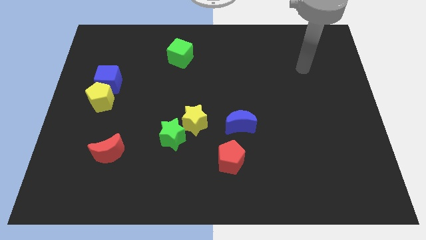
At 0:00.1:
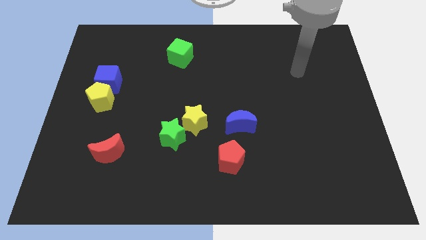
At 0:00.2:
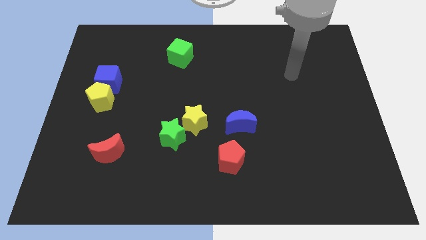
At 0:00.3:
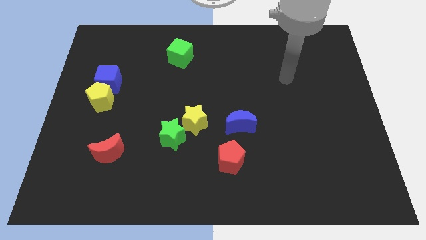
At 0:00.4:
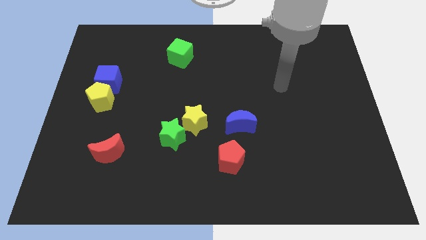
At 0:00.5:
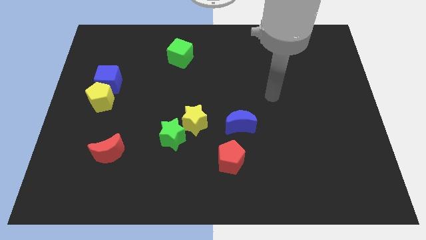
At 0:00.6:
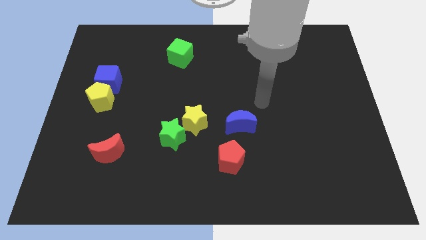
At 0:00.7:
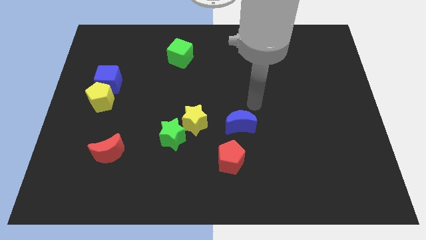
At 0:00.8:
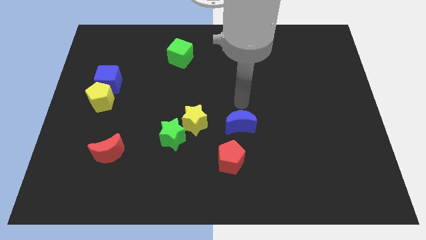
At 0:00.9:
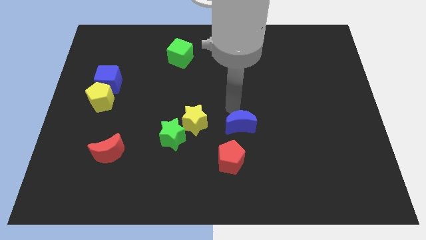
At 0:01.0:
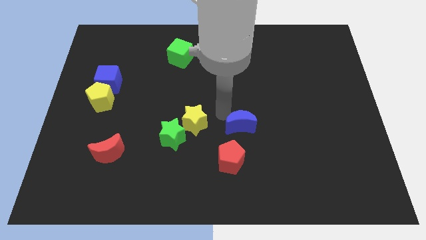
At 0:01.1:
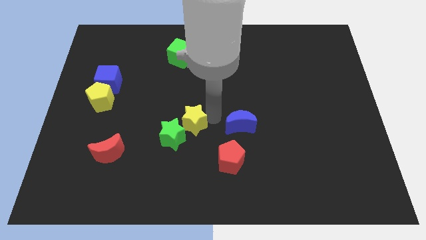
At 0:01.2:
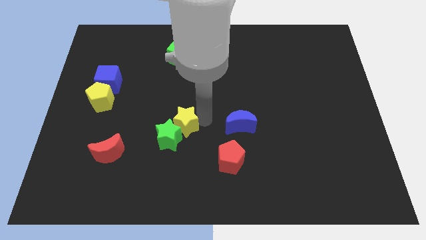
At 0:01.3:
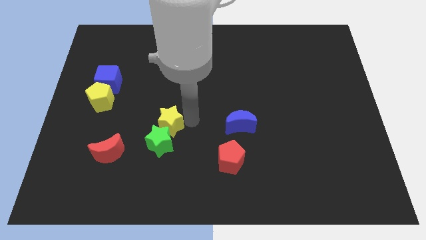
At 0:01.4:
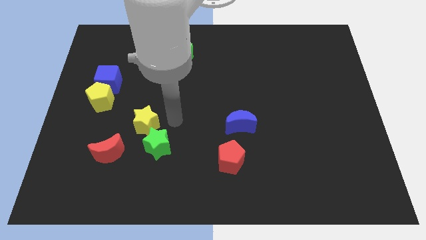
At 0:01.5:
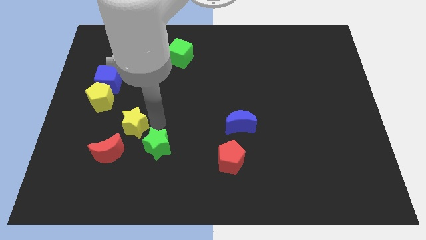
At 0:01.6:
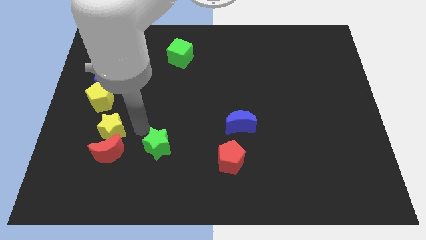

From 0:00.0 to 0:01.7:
move the green star away from the yellow star

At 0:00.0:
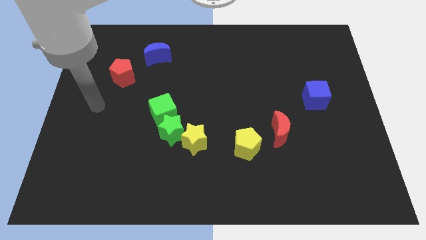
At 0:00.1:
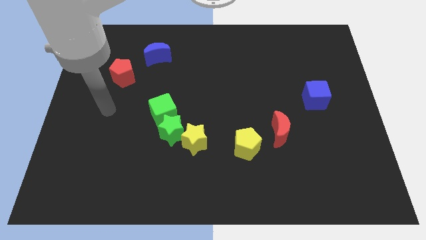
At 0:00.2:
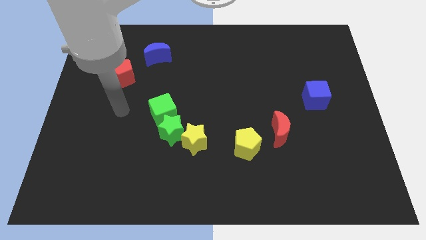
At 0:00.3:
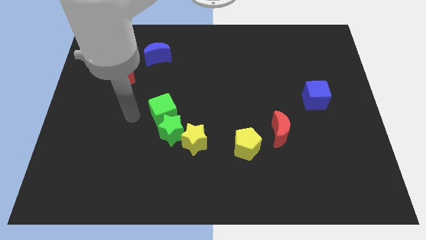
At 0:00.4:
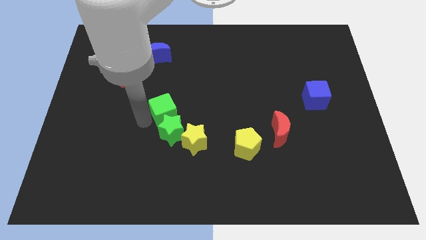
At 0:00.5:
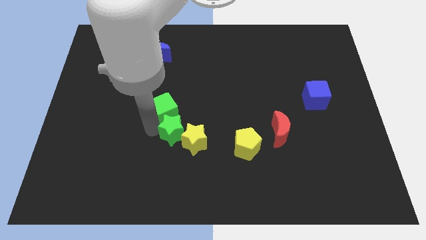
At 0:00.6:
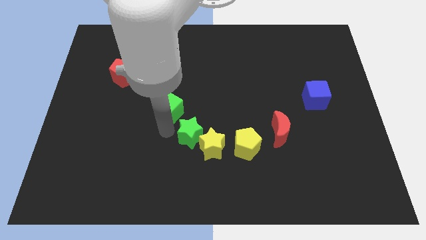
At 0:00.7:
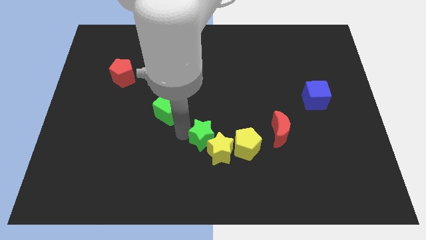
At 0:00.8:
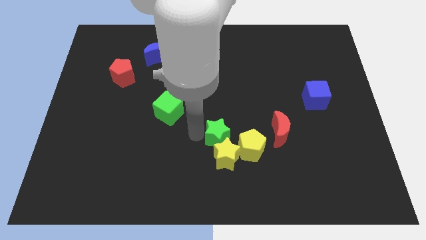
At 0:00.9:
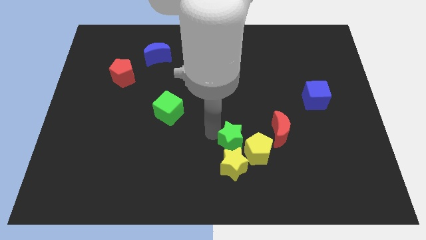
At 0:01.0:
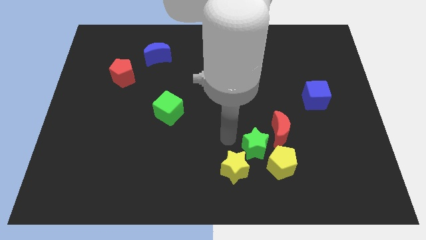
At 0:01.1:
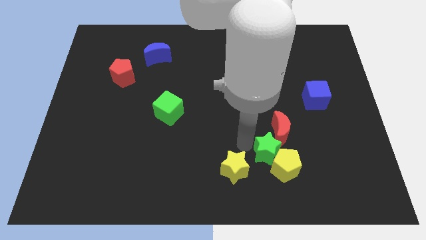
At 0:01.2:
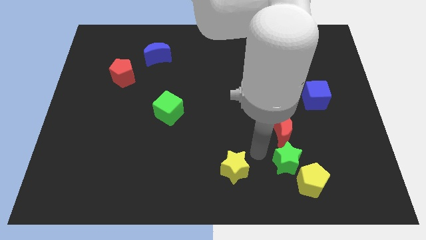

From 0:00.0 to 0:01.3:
separate the yellow star from the green star

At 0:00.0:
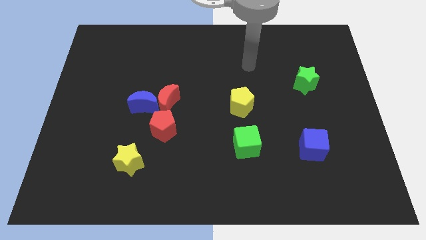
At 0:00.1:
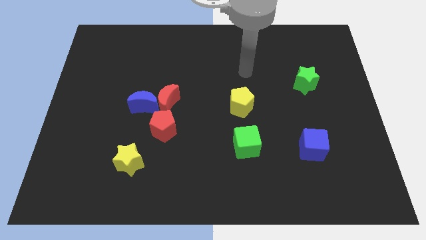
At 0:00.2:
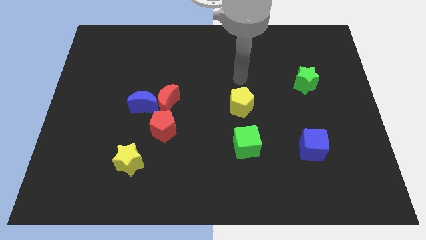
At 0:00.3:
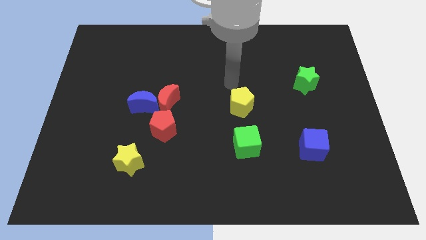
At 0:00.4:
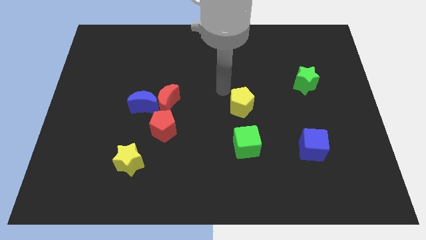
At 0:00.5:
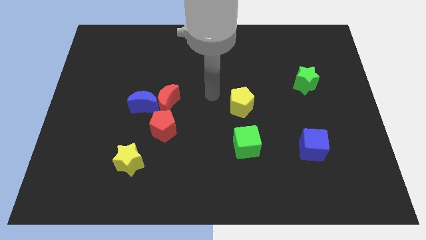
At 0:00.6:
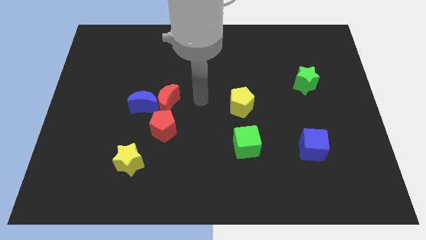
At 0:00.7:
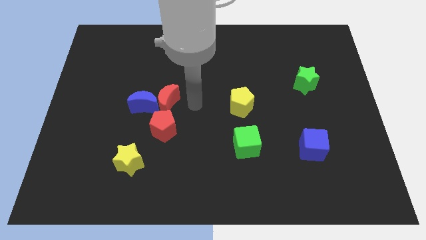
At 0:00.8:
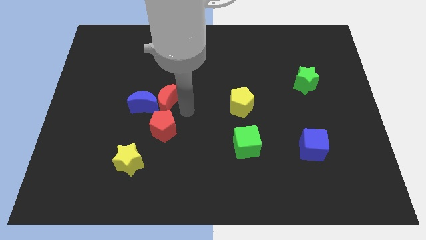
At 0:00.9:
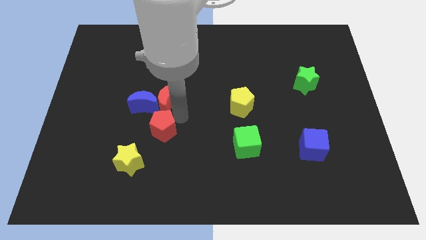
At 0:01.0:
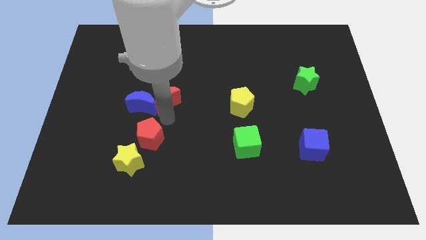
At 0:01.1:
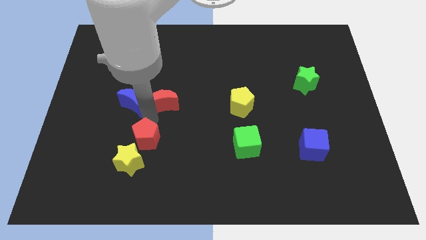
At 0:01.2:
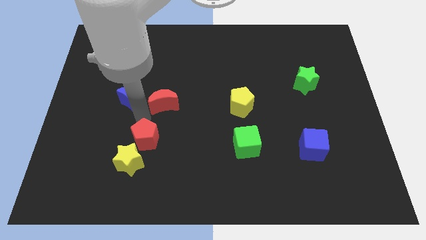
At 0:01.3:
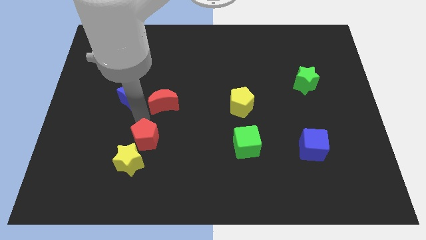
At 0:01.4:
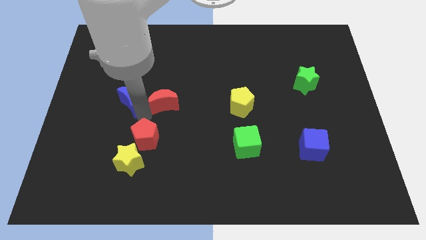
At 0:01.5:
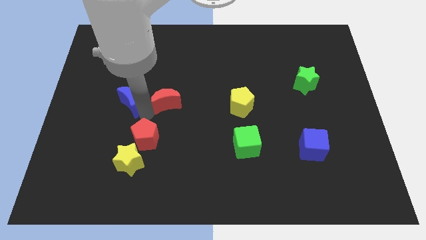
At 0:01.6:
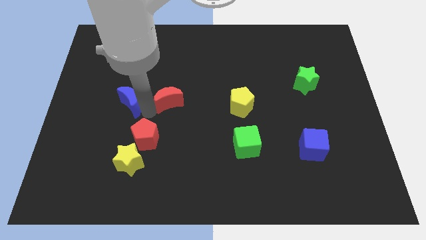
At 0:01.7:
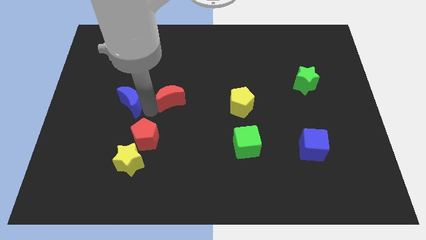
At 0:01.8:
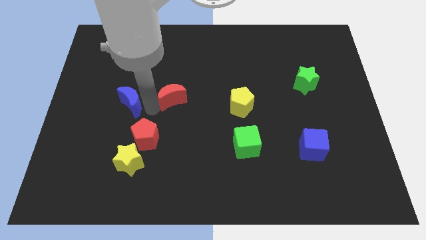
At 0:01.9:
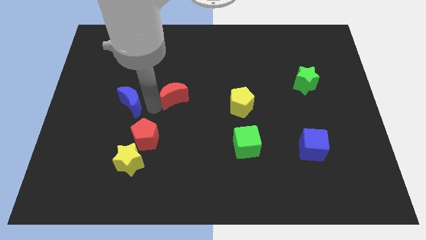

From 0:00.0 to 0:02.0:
move the red moon away from the blue moon and red pentagon

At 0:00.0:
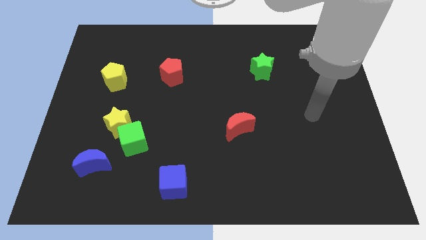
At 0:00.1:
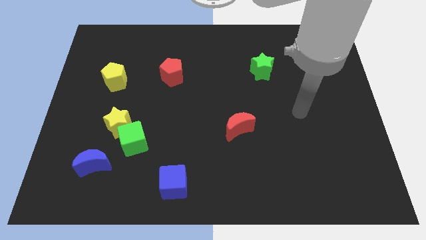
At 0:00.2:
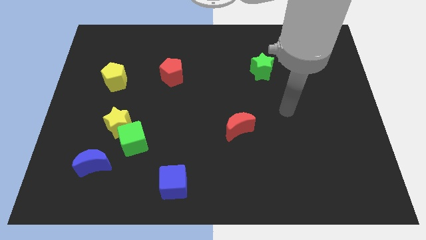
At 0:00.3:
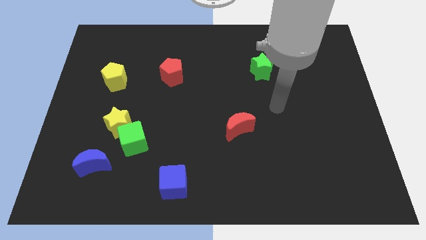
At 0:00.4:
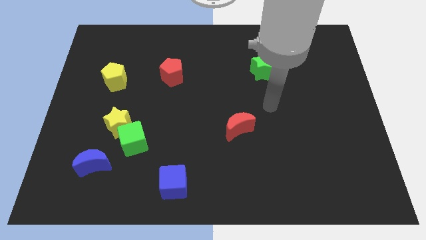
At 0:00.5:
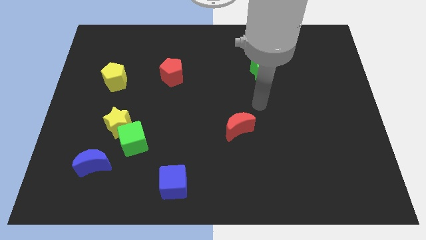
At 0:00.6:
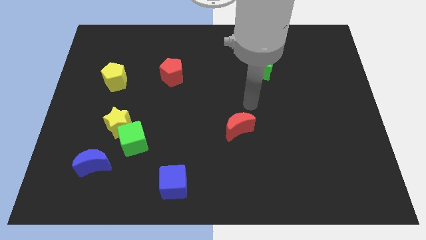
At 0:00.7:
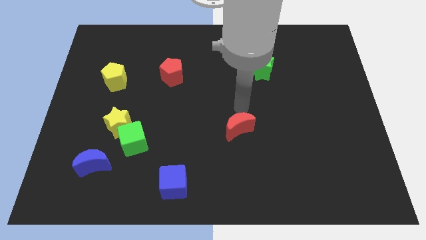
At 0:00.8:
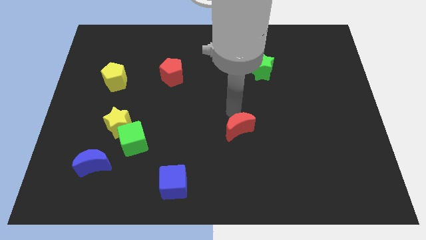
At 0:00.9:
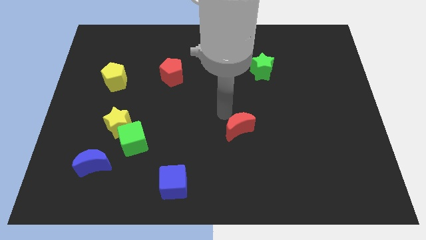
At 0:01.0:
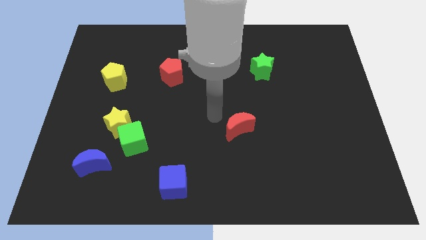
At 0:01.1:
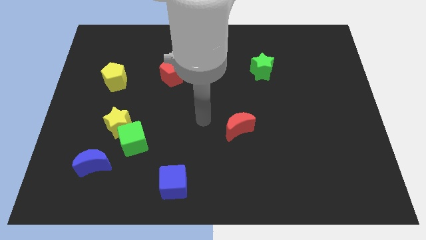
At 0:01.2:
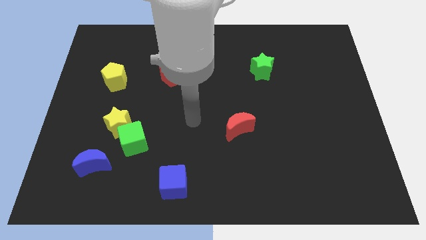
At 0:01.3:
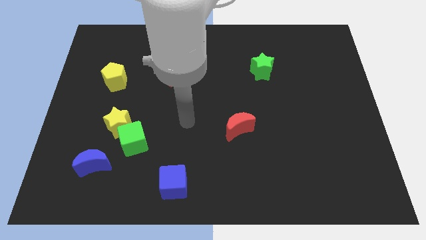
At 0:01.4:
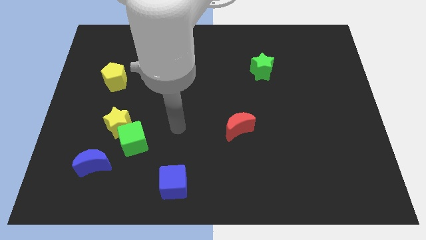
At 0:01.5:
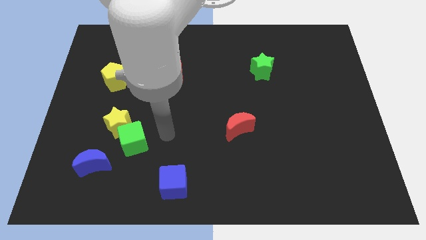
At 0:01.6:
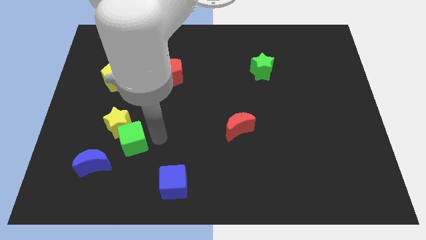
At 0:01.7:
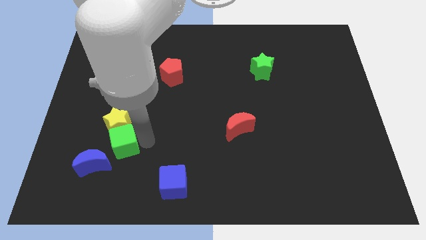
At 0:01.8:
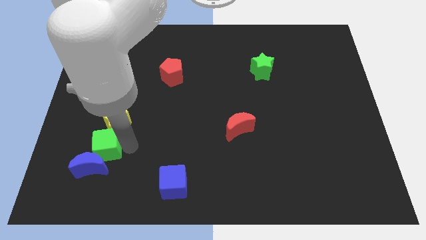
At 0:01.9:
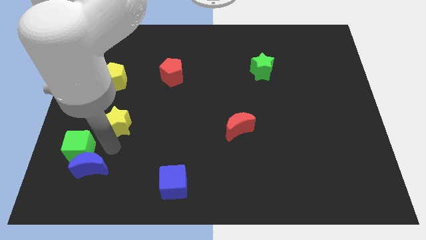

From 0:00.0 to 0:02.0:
pull the yellow star apart from the green cube

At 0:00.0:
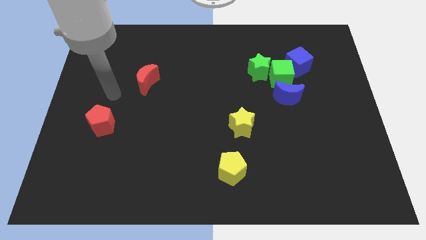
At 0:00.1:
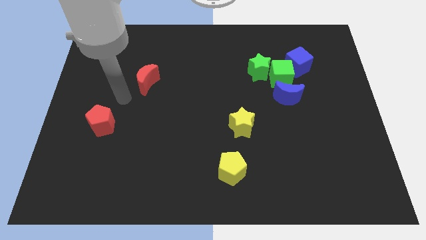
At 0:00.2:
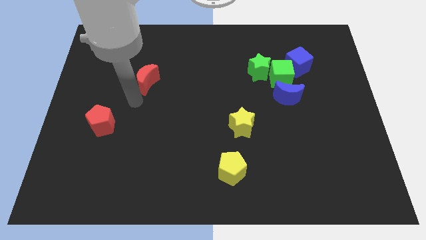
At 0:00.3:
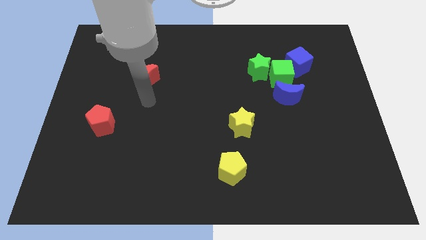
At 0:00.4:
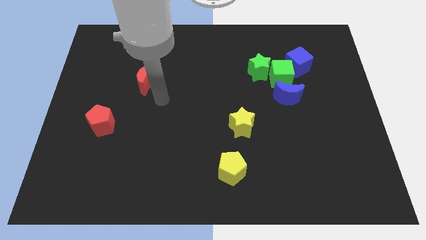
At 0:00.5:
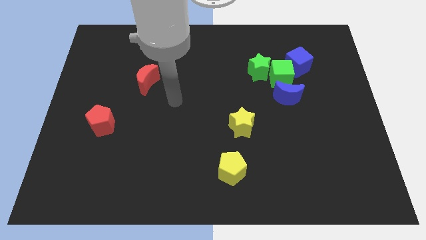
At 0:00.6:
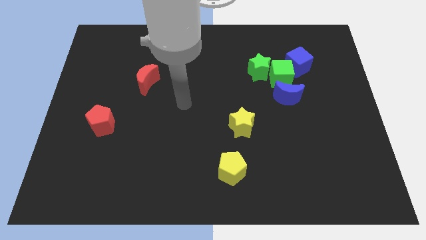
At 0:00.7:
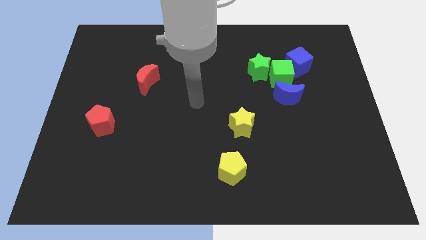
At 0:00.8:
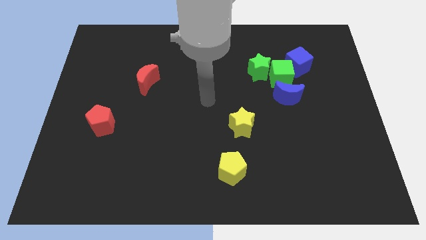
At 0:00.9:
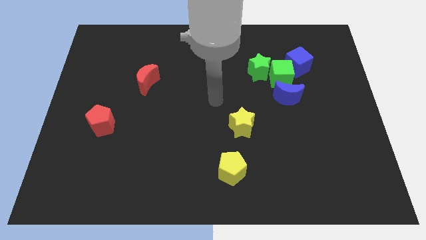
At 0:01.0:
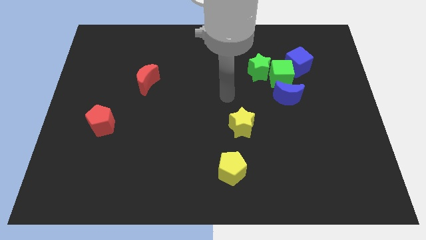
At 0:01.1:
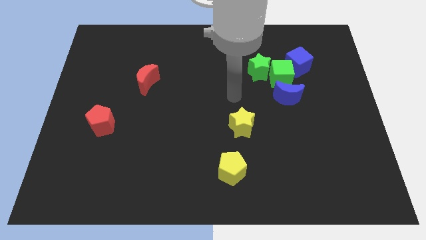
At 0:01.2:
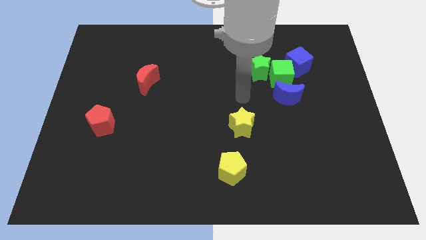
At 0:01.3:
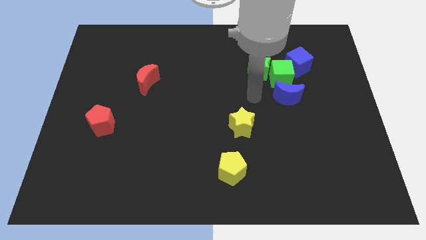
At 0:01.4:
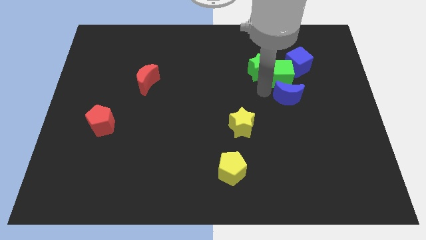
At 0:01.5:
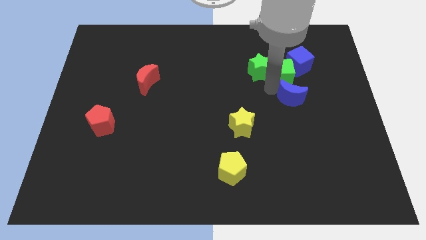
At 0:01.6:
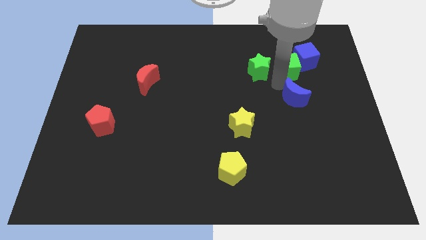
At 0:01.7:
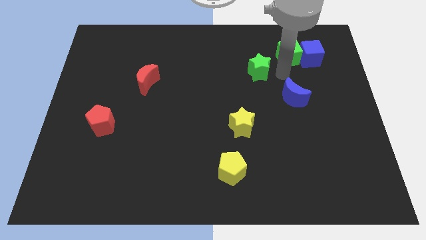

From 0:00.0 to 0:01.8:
separate the green star from the green cube

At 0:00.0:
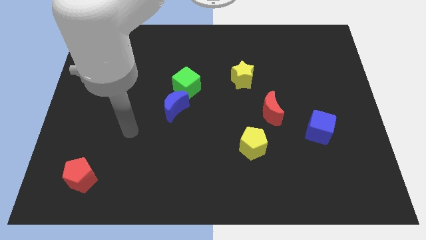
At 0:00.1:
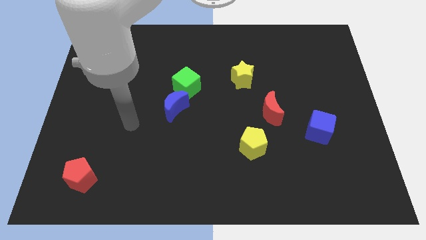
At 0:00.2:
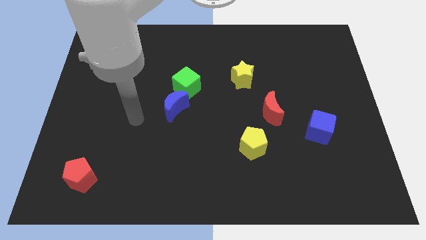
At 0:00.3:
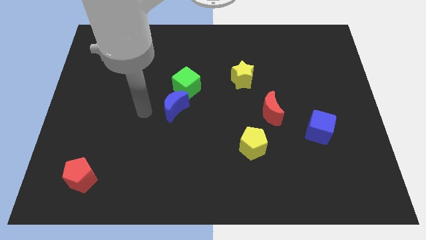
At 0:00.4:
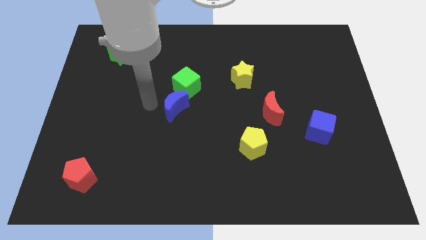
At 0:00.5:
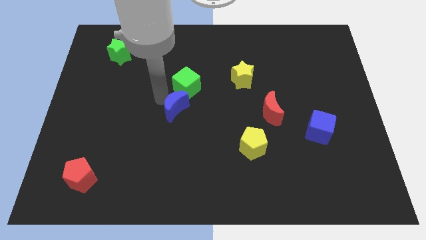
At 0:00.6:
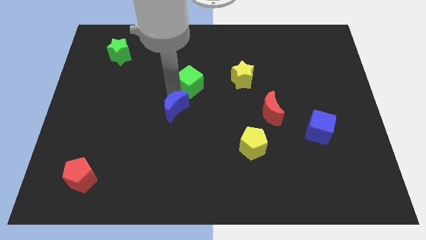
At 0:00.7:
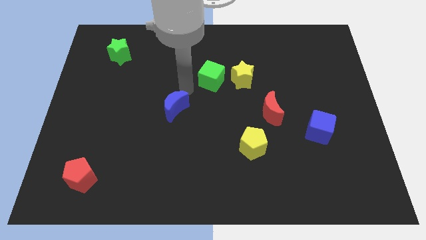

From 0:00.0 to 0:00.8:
move the blue moon away from the green cube
